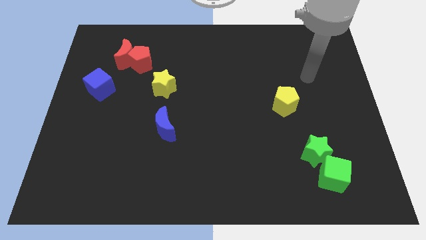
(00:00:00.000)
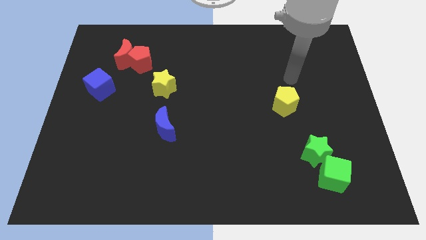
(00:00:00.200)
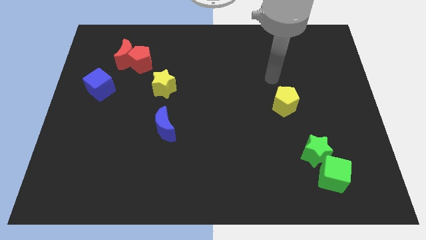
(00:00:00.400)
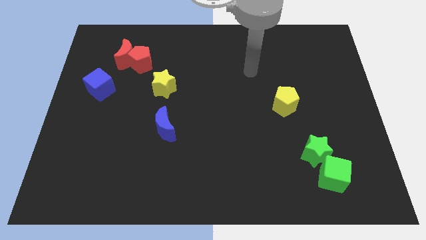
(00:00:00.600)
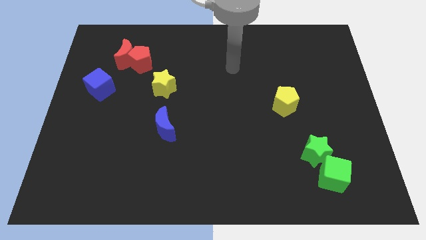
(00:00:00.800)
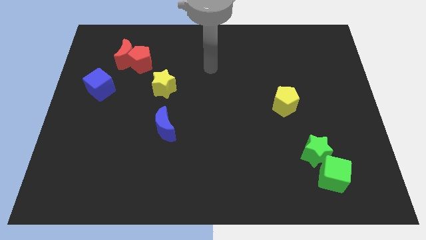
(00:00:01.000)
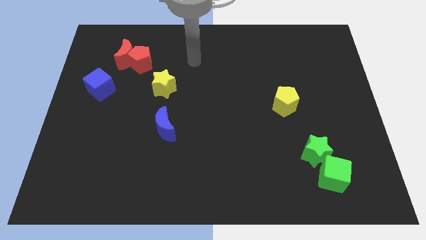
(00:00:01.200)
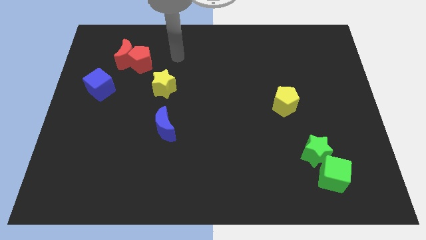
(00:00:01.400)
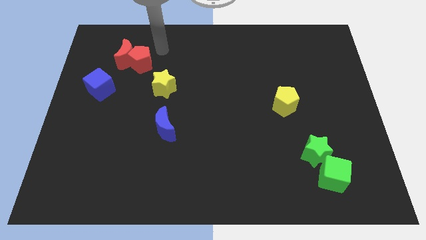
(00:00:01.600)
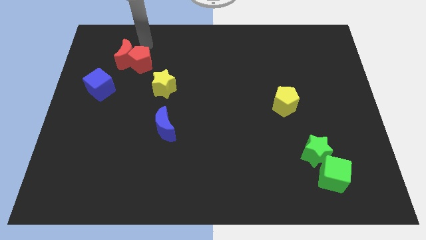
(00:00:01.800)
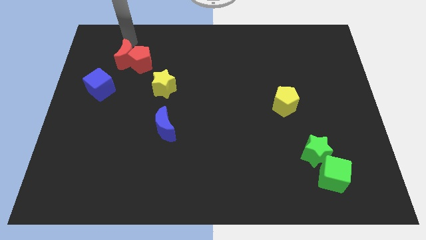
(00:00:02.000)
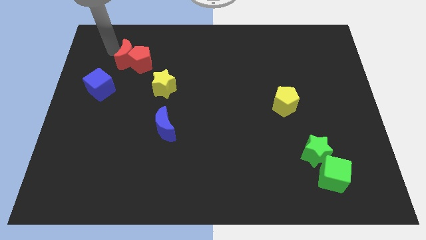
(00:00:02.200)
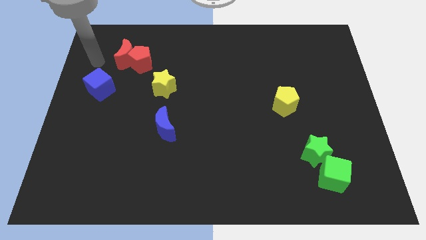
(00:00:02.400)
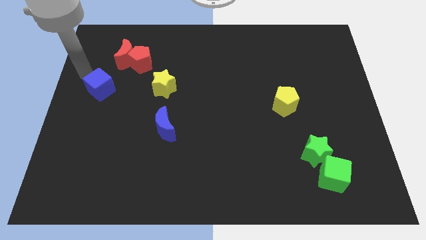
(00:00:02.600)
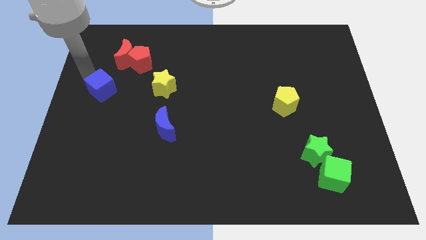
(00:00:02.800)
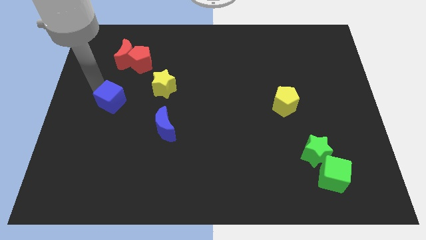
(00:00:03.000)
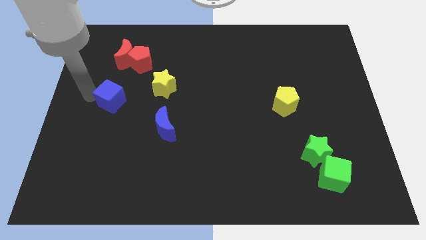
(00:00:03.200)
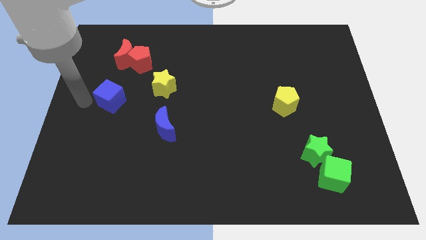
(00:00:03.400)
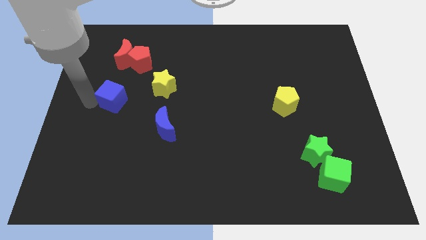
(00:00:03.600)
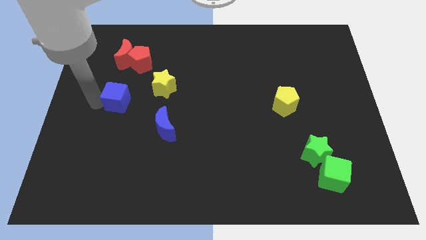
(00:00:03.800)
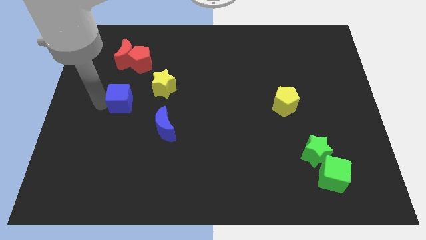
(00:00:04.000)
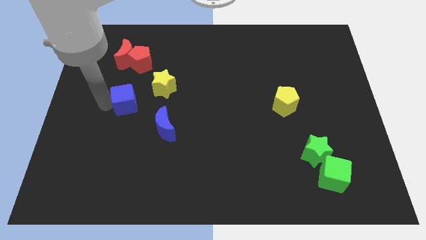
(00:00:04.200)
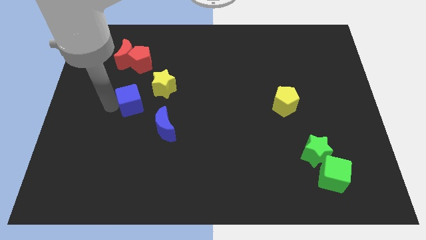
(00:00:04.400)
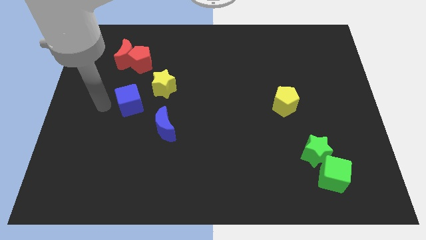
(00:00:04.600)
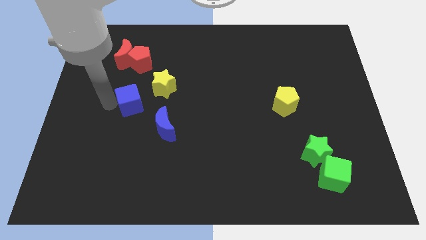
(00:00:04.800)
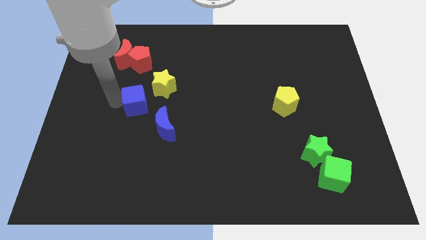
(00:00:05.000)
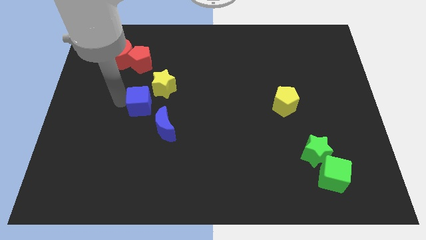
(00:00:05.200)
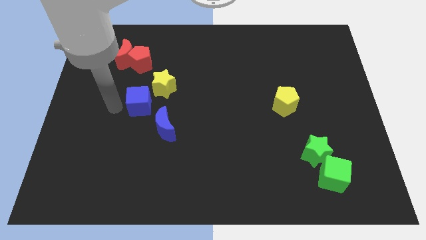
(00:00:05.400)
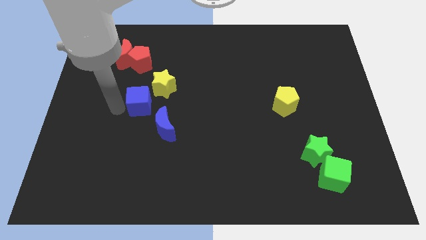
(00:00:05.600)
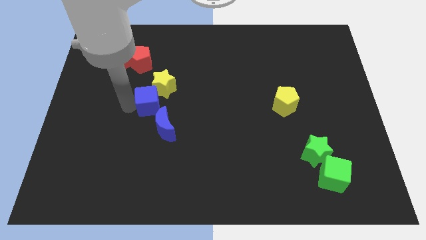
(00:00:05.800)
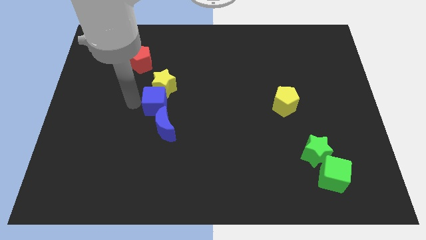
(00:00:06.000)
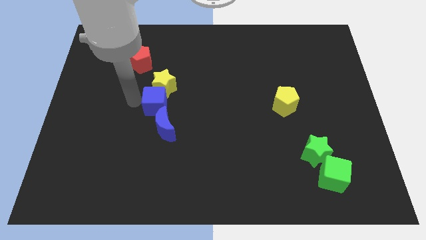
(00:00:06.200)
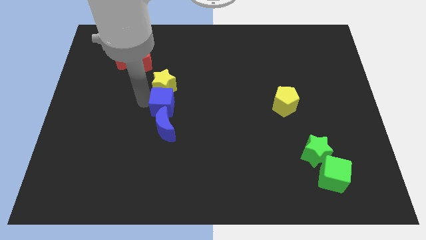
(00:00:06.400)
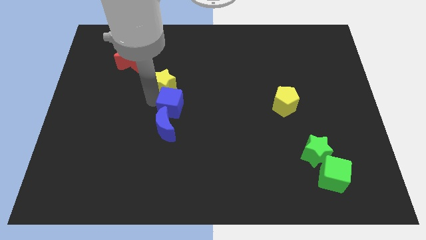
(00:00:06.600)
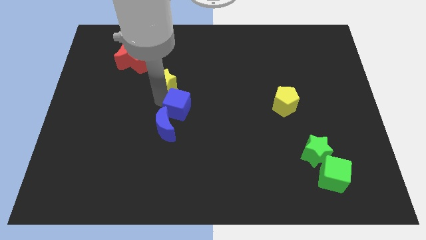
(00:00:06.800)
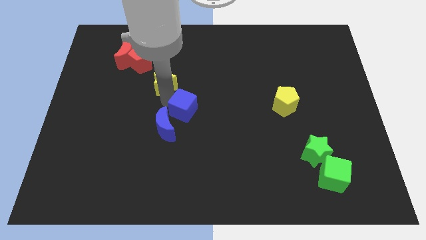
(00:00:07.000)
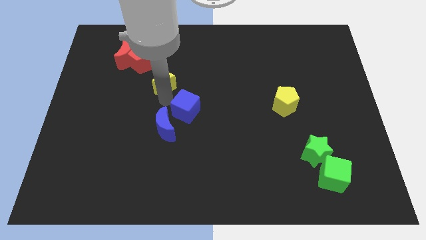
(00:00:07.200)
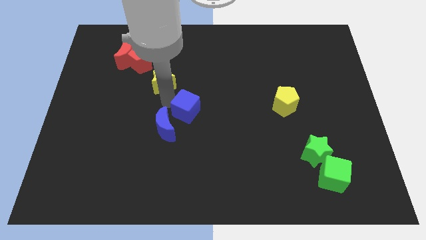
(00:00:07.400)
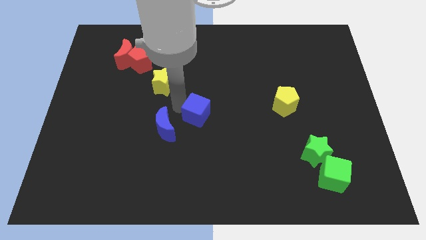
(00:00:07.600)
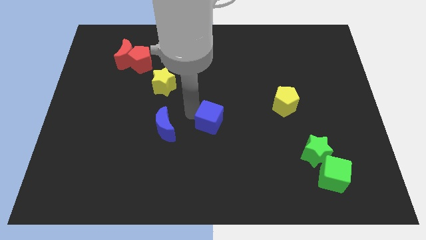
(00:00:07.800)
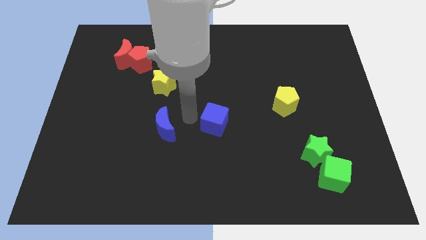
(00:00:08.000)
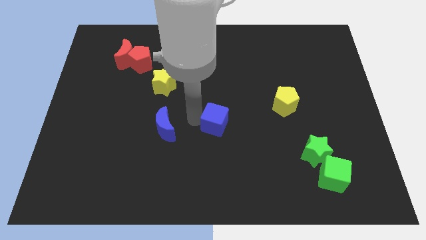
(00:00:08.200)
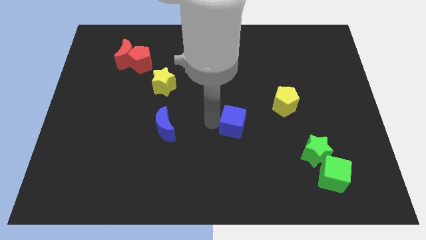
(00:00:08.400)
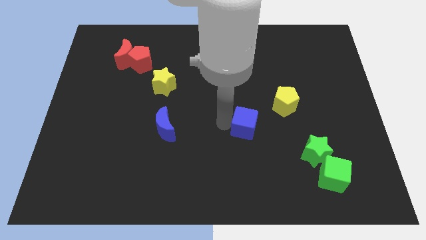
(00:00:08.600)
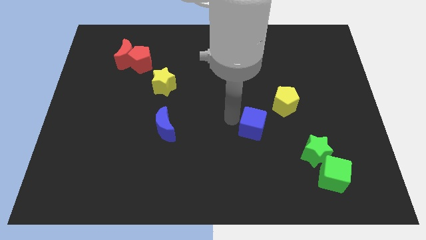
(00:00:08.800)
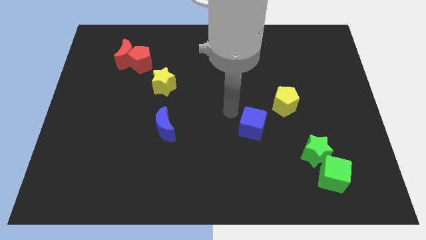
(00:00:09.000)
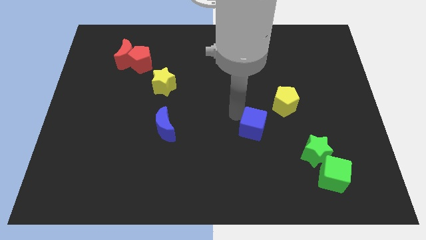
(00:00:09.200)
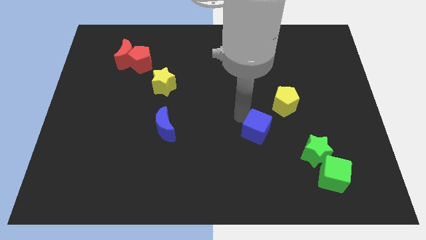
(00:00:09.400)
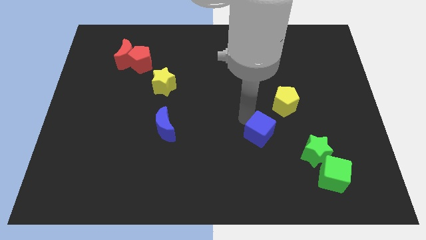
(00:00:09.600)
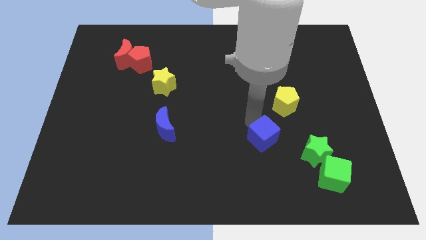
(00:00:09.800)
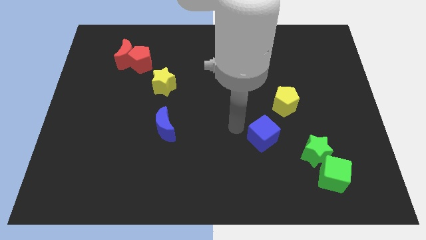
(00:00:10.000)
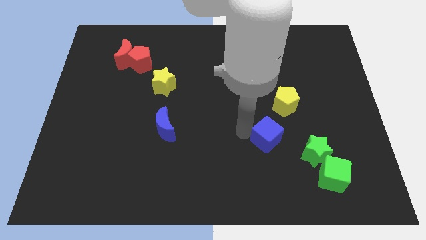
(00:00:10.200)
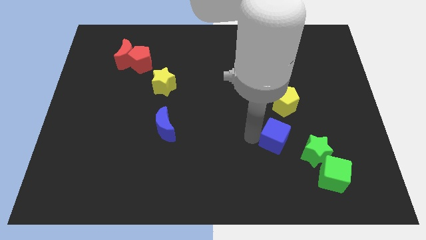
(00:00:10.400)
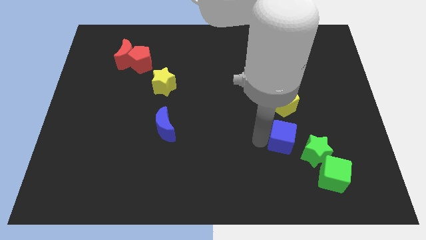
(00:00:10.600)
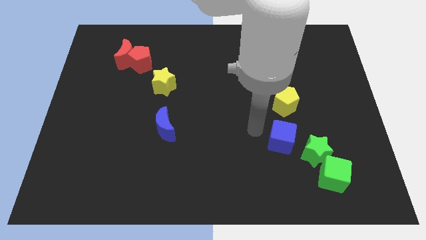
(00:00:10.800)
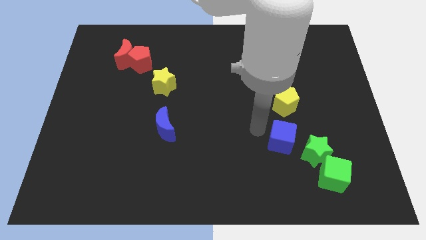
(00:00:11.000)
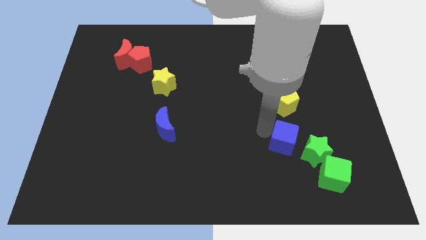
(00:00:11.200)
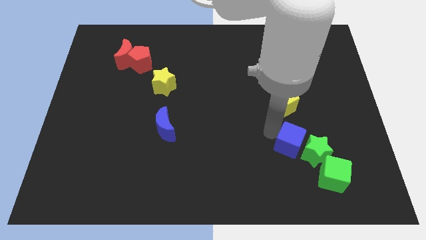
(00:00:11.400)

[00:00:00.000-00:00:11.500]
put the blue cube to the green star

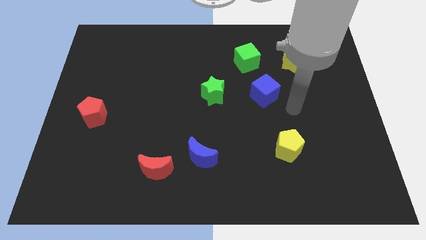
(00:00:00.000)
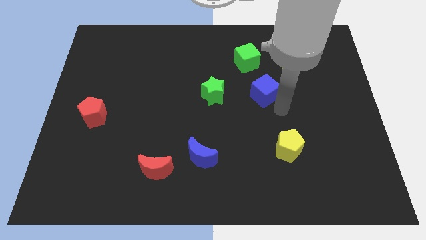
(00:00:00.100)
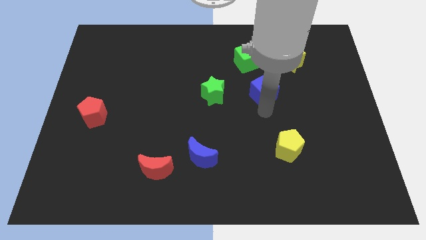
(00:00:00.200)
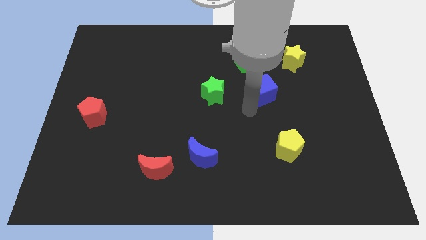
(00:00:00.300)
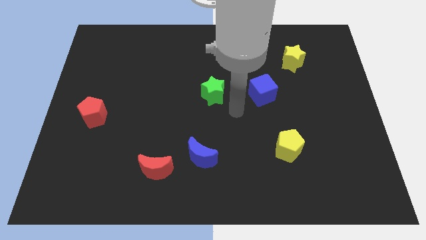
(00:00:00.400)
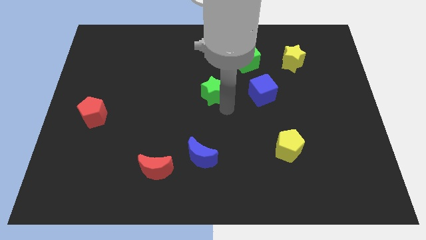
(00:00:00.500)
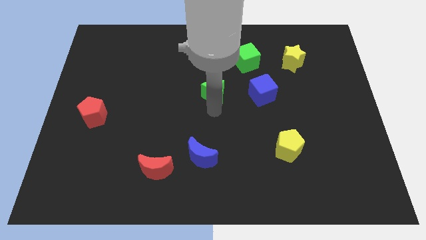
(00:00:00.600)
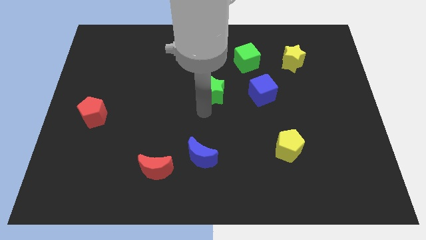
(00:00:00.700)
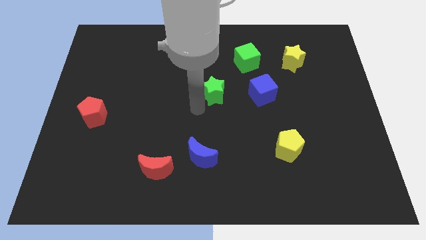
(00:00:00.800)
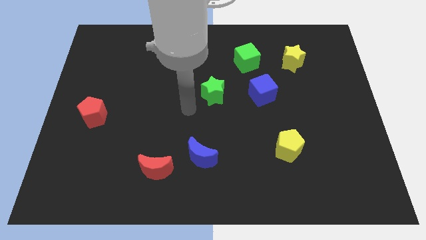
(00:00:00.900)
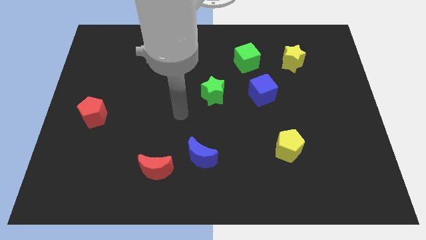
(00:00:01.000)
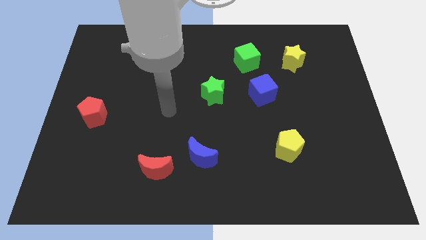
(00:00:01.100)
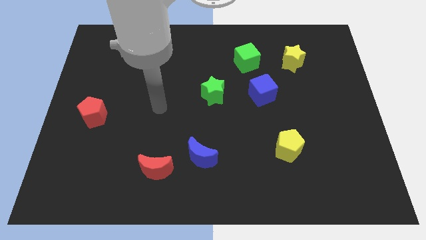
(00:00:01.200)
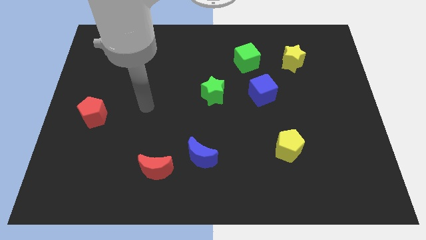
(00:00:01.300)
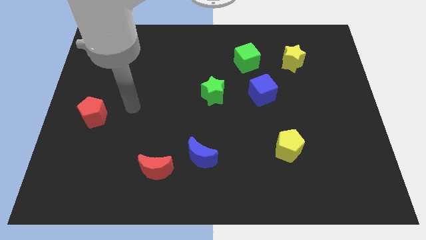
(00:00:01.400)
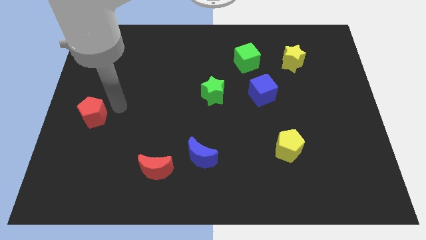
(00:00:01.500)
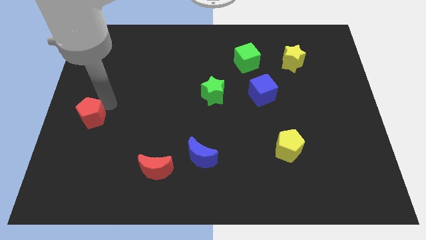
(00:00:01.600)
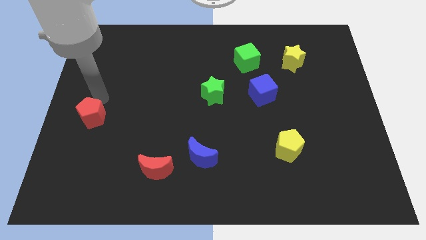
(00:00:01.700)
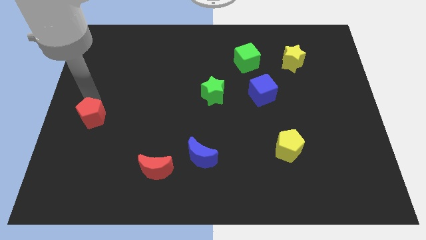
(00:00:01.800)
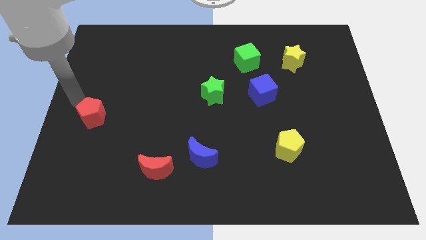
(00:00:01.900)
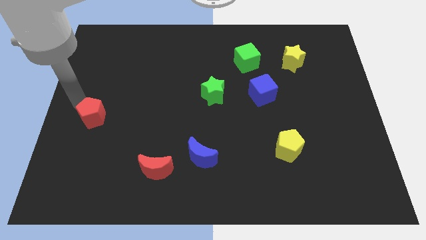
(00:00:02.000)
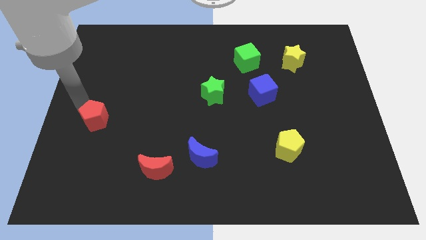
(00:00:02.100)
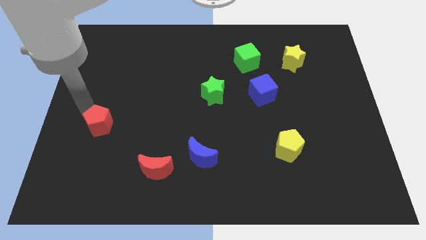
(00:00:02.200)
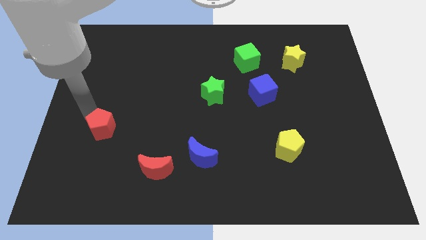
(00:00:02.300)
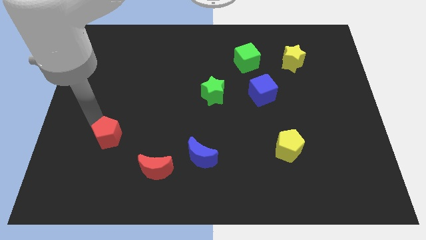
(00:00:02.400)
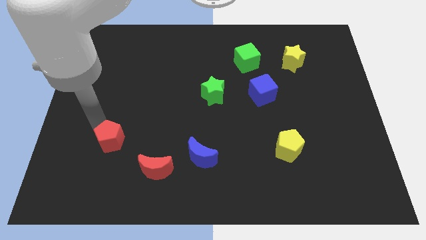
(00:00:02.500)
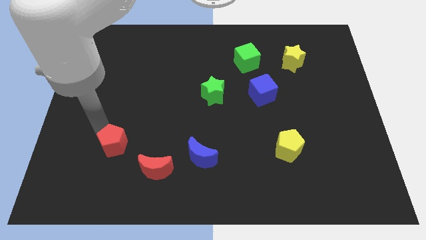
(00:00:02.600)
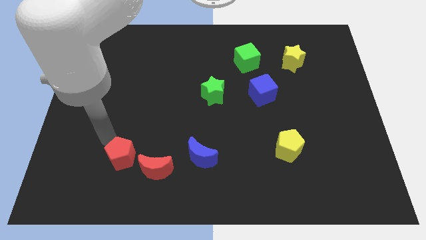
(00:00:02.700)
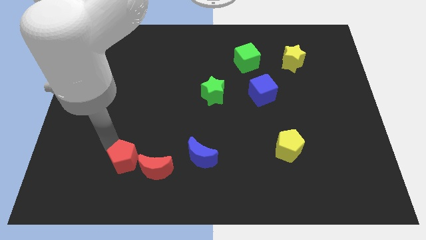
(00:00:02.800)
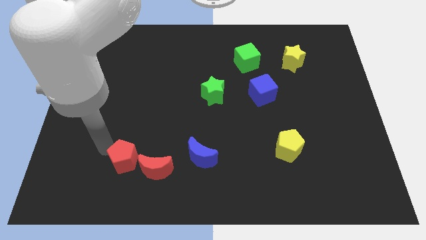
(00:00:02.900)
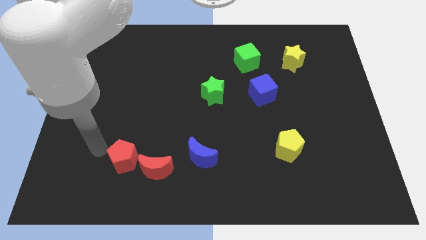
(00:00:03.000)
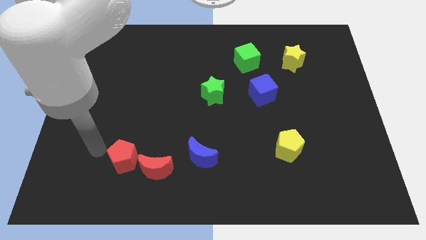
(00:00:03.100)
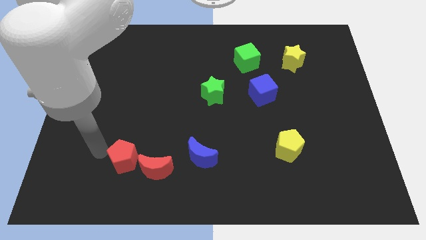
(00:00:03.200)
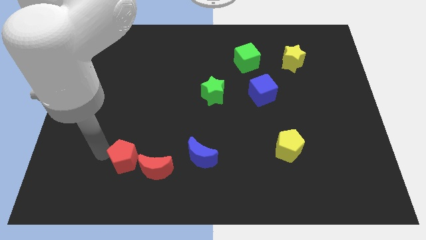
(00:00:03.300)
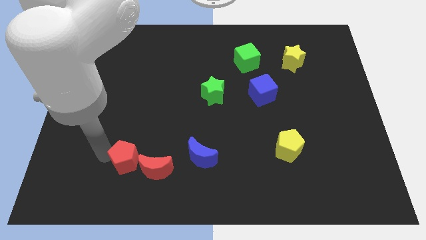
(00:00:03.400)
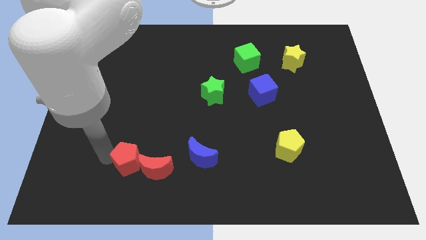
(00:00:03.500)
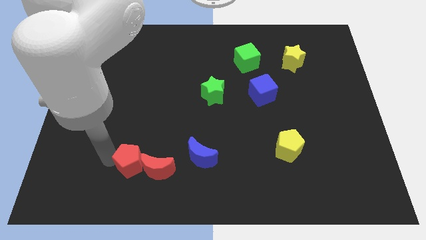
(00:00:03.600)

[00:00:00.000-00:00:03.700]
move the red pentagon to the red moon
